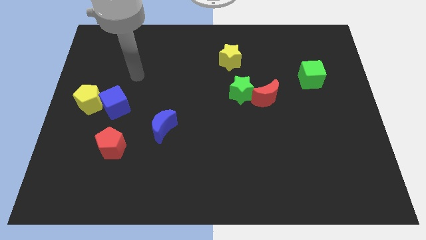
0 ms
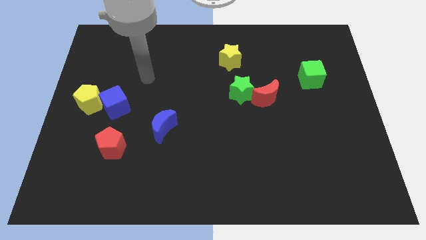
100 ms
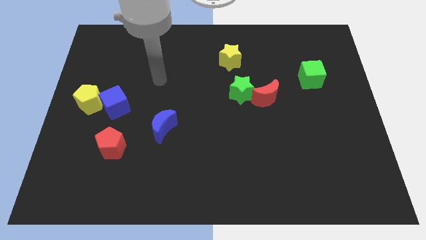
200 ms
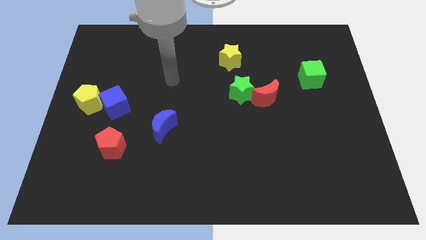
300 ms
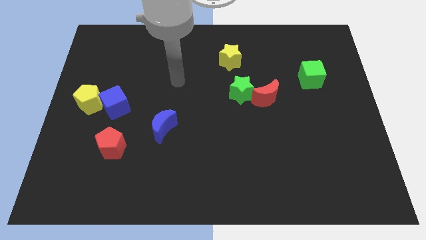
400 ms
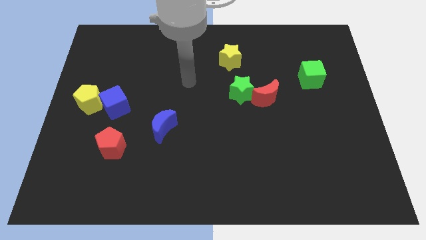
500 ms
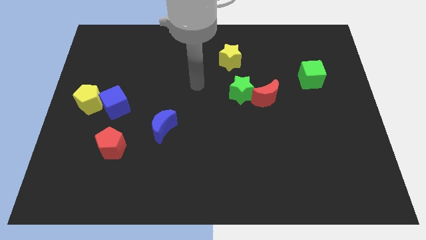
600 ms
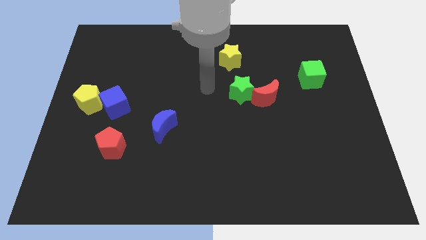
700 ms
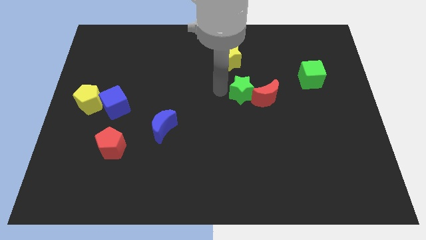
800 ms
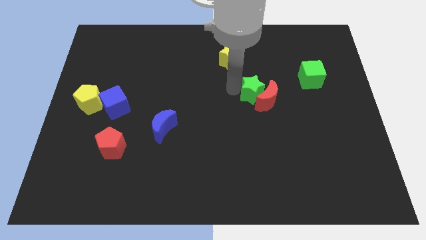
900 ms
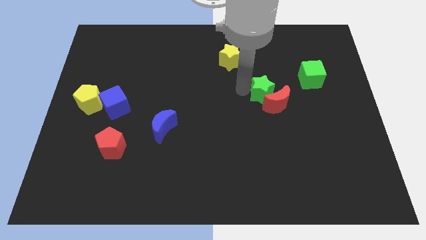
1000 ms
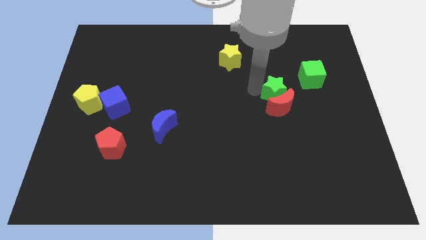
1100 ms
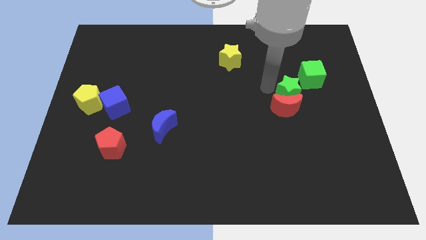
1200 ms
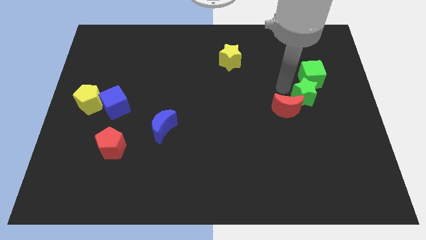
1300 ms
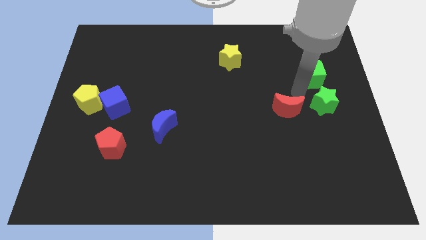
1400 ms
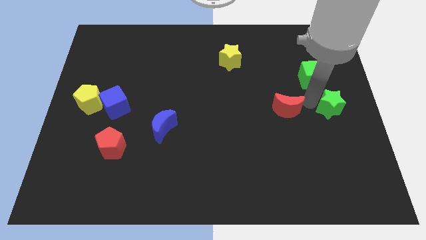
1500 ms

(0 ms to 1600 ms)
separate the red moon from the green star

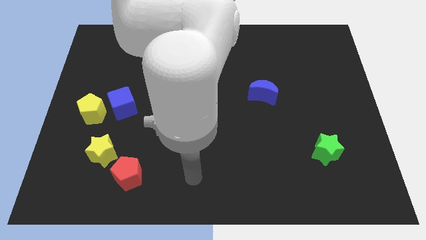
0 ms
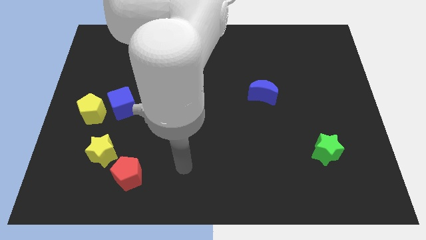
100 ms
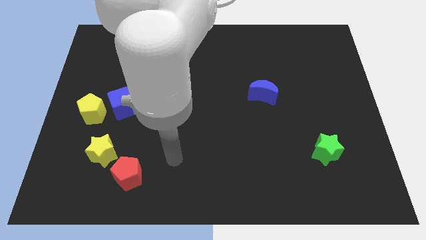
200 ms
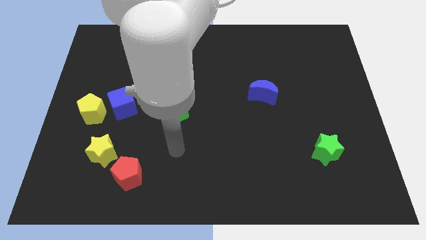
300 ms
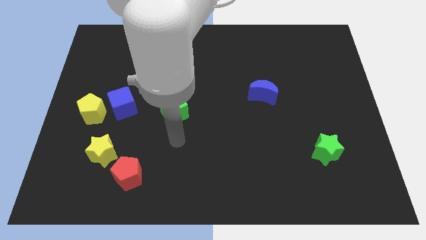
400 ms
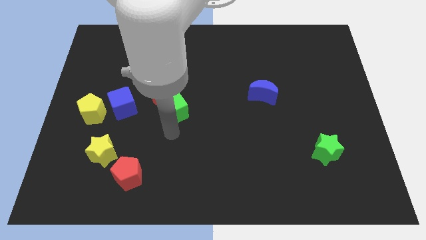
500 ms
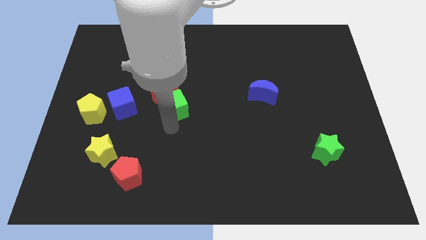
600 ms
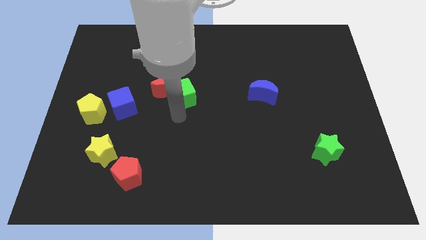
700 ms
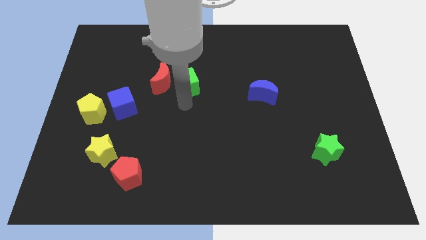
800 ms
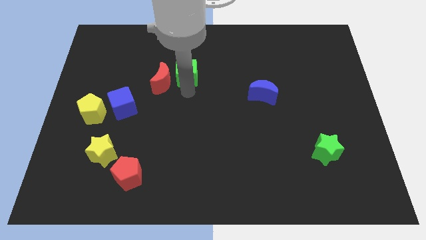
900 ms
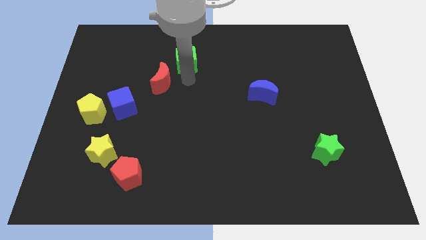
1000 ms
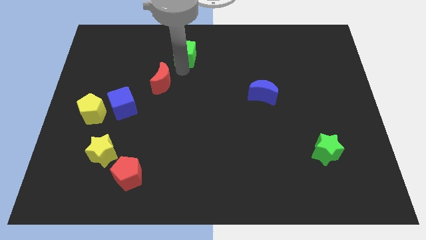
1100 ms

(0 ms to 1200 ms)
move the red moon away from the green cube

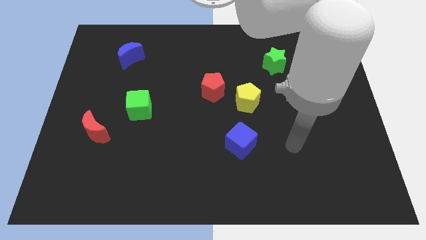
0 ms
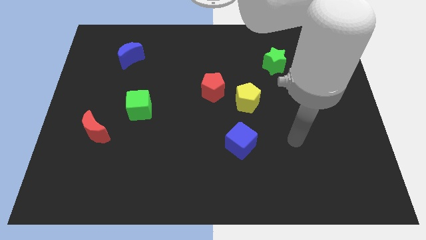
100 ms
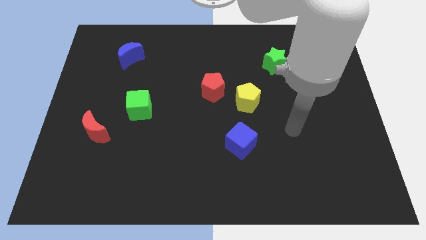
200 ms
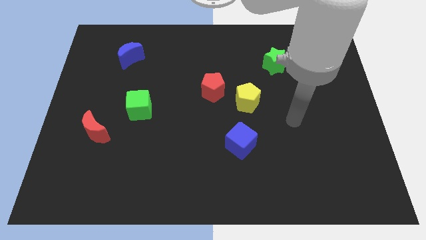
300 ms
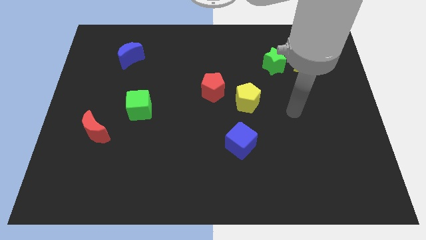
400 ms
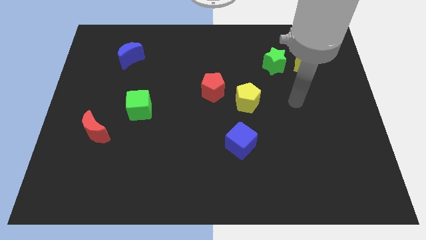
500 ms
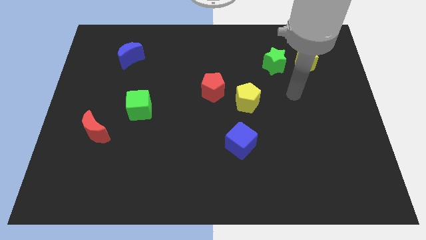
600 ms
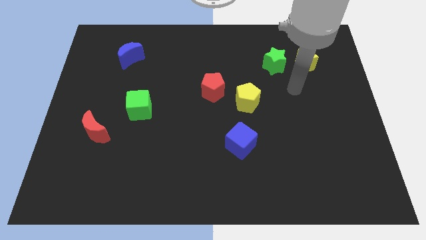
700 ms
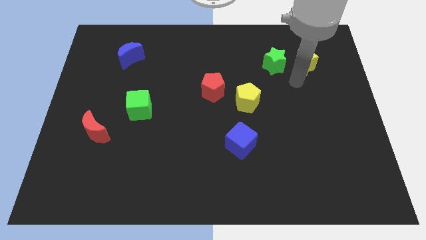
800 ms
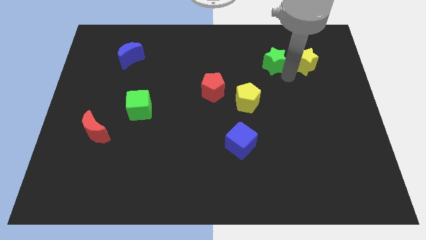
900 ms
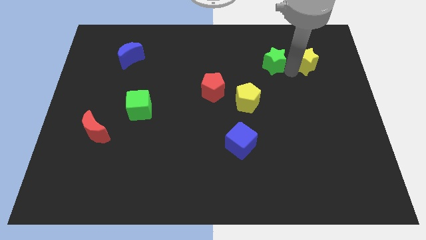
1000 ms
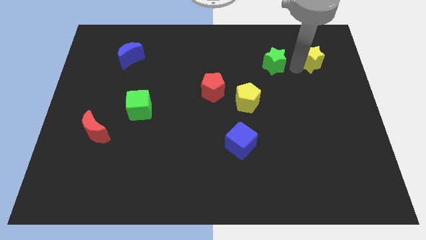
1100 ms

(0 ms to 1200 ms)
pull the green star apart from the yellow star

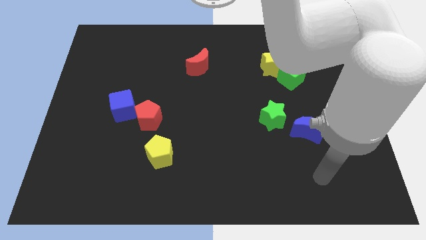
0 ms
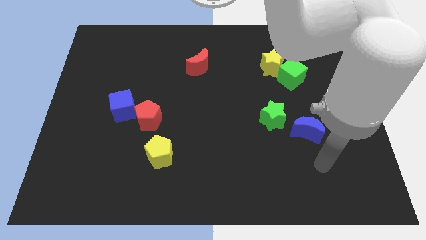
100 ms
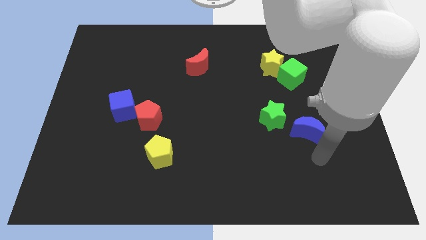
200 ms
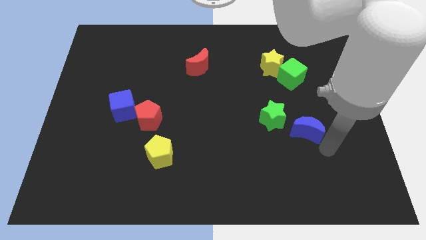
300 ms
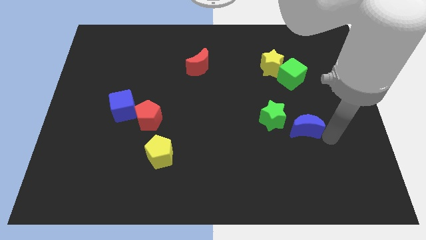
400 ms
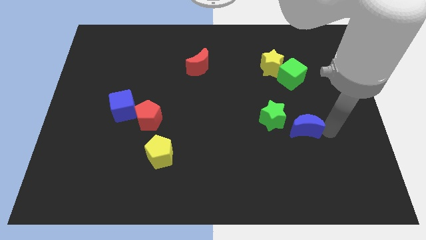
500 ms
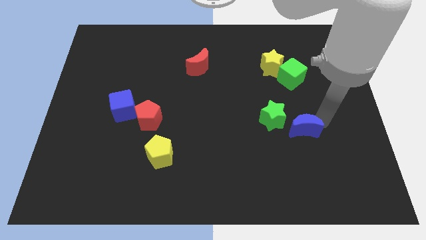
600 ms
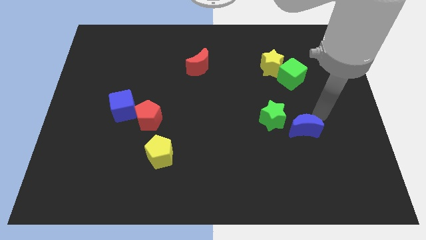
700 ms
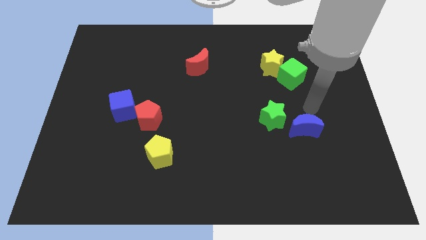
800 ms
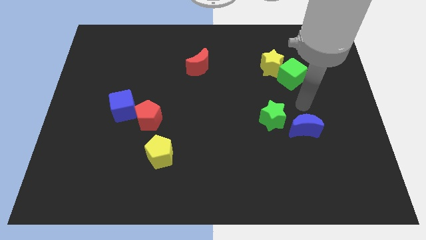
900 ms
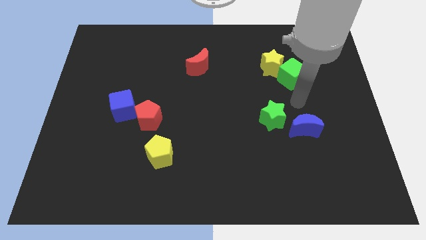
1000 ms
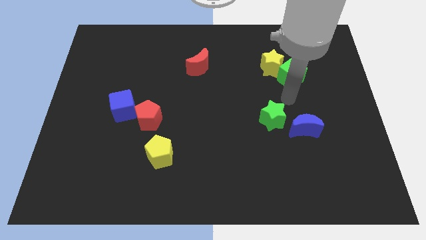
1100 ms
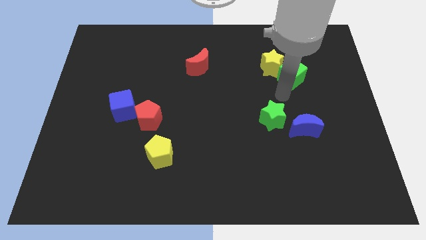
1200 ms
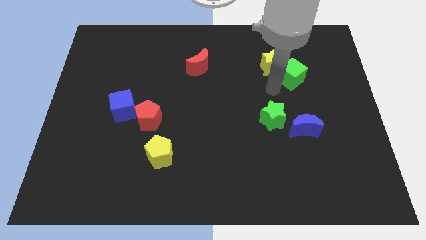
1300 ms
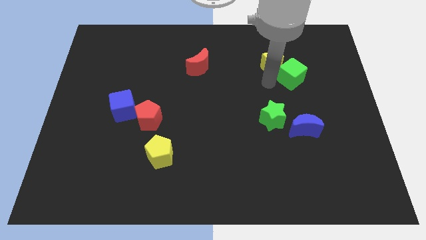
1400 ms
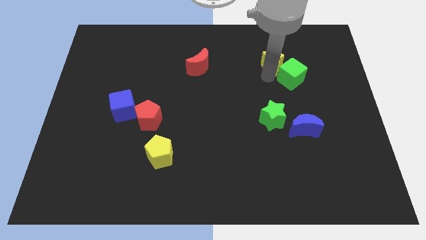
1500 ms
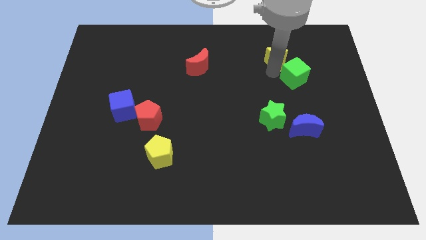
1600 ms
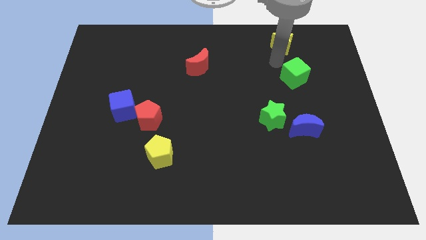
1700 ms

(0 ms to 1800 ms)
move the green cube away from the yellow star

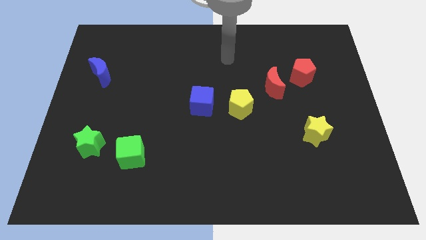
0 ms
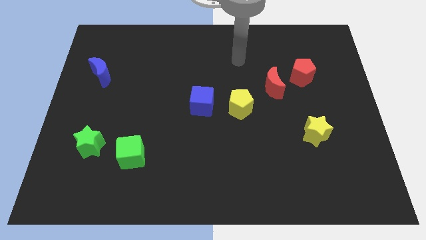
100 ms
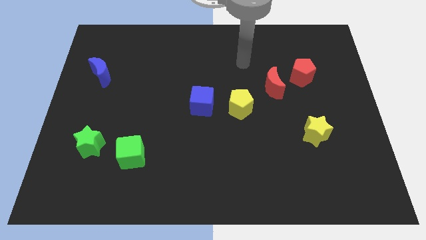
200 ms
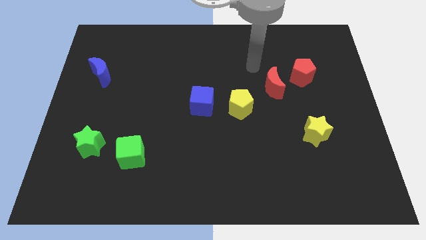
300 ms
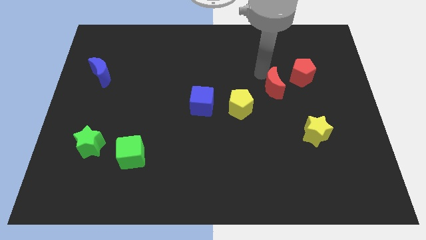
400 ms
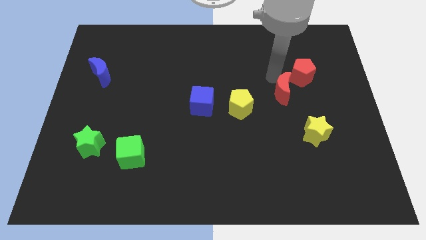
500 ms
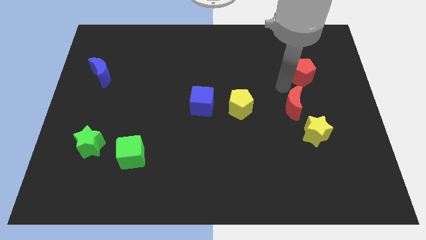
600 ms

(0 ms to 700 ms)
separate the red pentagon from the red moon

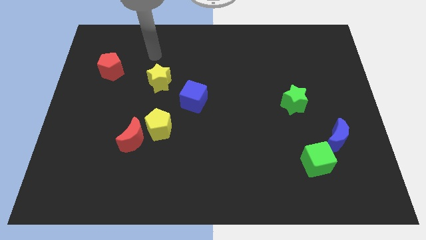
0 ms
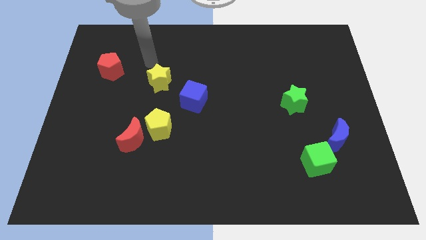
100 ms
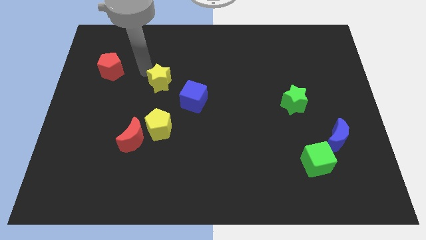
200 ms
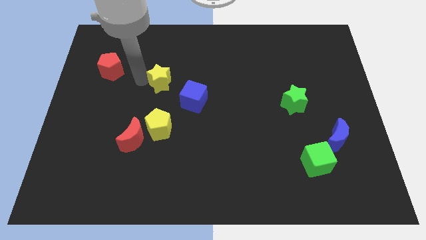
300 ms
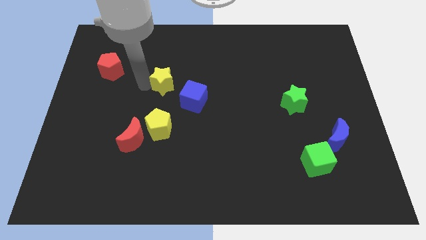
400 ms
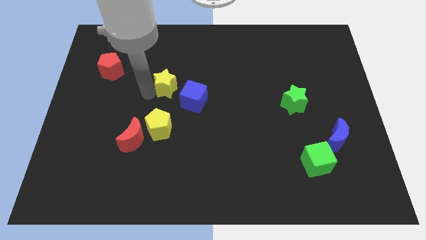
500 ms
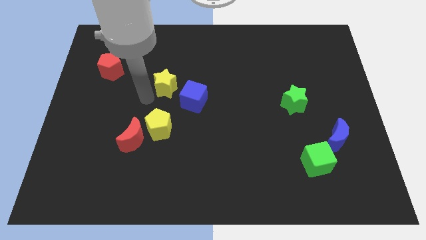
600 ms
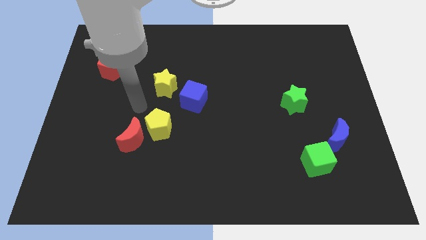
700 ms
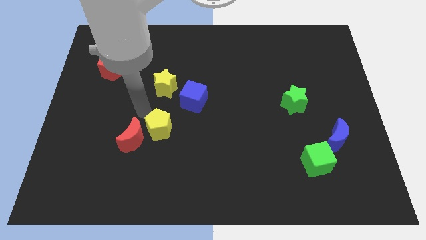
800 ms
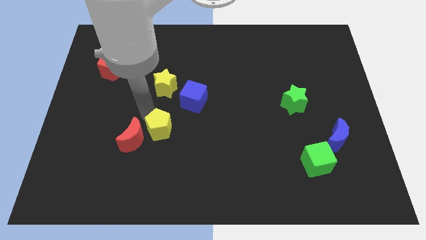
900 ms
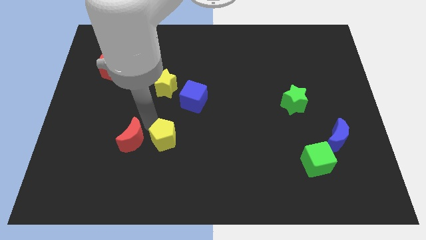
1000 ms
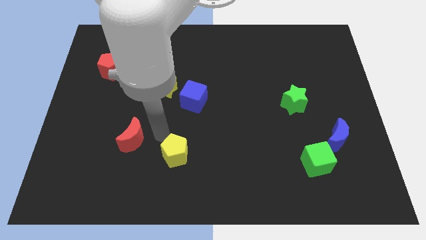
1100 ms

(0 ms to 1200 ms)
pull the red moon apart from the yellow pentagon

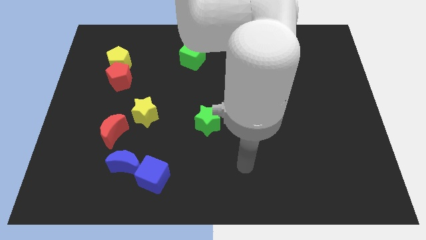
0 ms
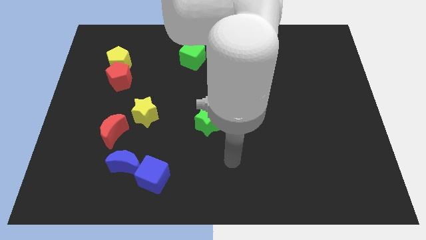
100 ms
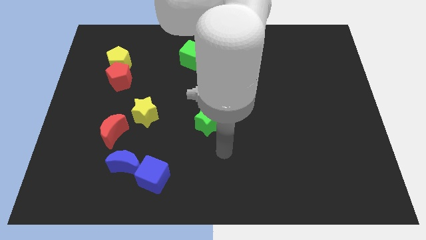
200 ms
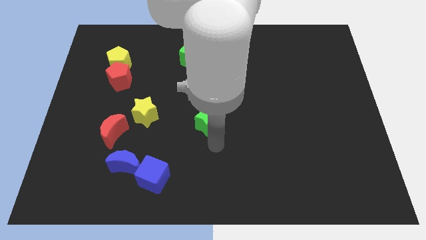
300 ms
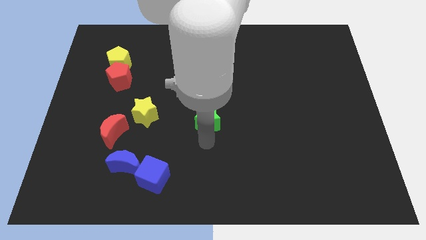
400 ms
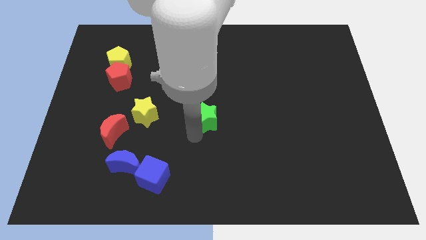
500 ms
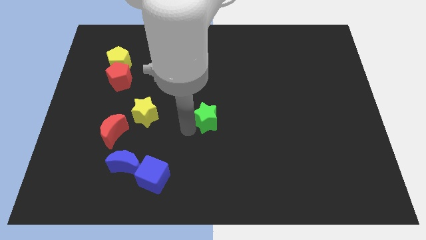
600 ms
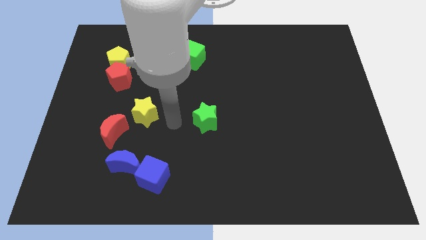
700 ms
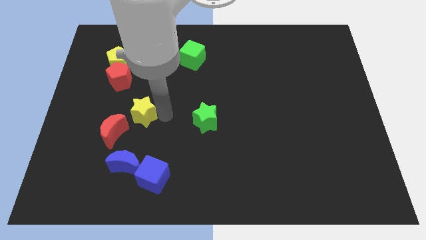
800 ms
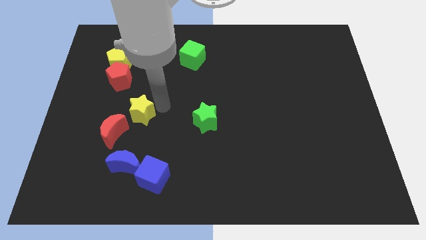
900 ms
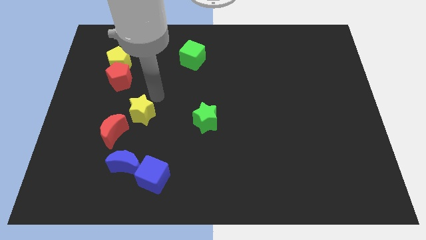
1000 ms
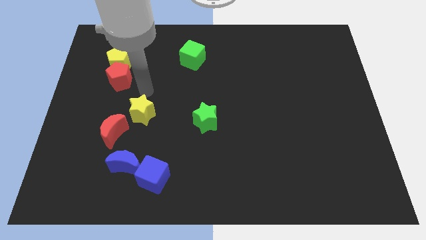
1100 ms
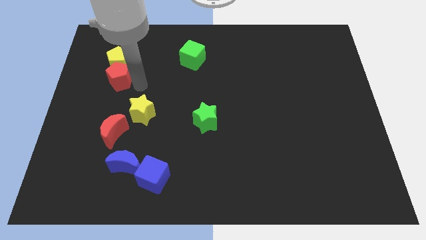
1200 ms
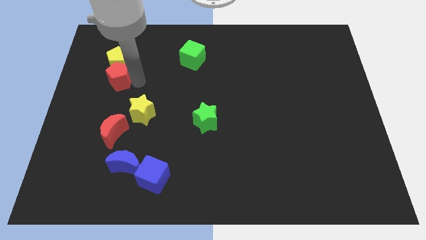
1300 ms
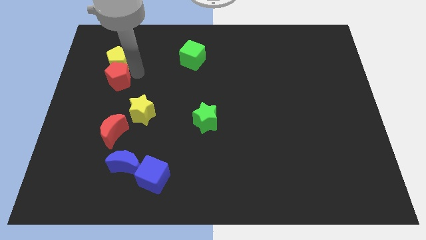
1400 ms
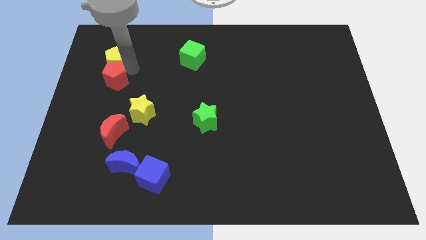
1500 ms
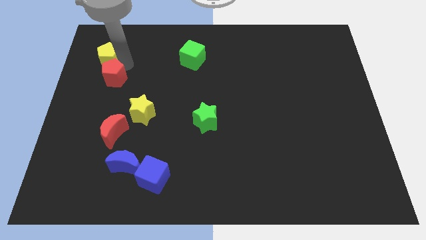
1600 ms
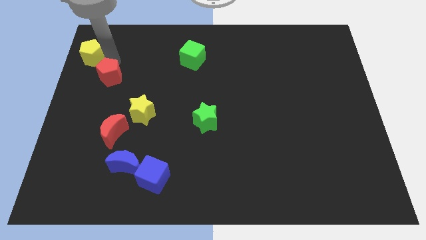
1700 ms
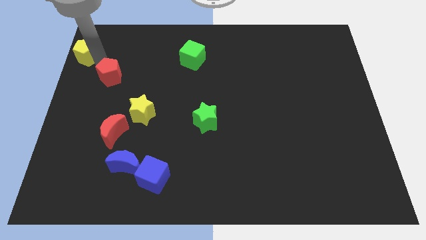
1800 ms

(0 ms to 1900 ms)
move the red pentagon away from the yellow pentagon
